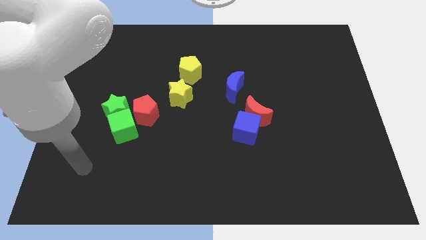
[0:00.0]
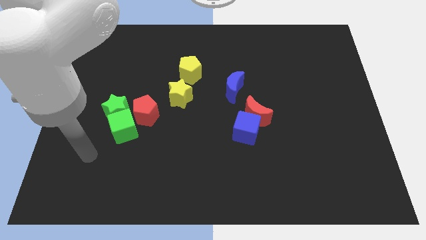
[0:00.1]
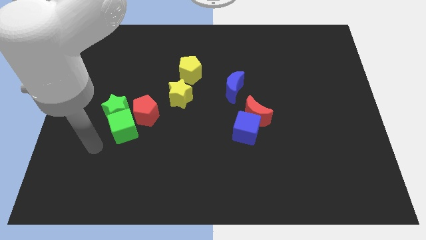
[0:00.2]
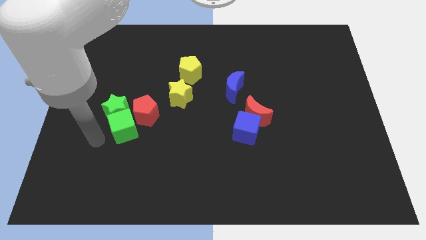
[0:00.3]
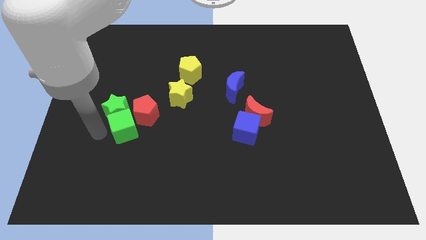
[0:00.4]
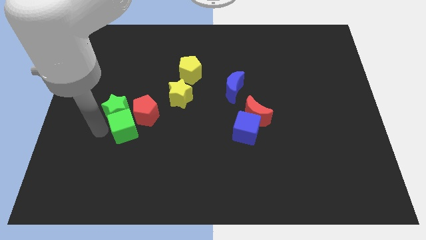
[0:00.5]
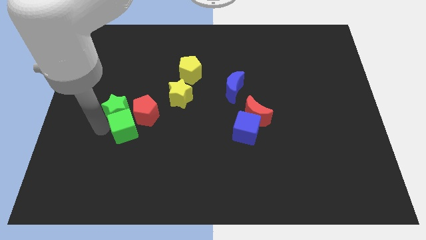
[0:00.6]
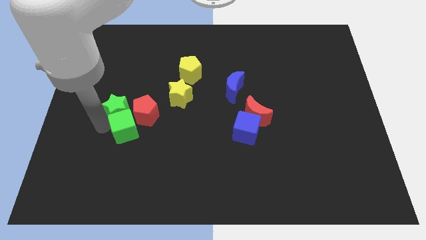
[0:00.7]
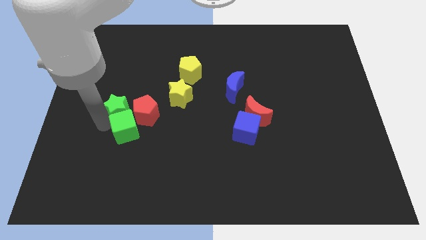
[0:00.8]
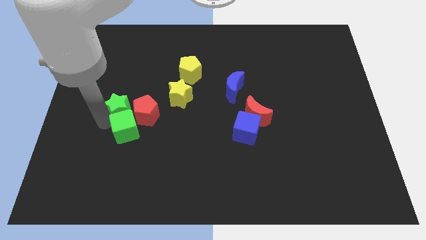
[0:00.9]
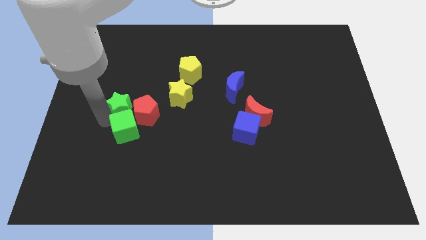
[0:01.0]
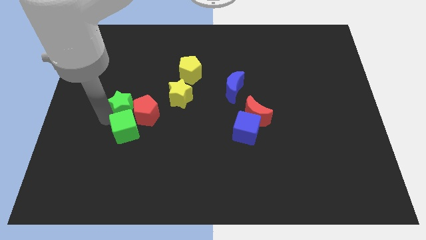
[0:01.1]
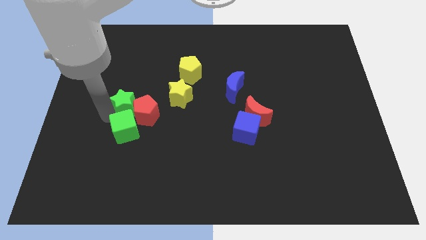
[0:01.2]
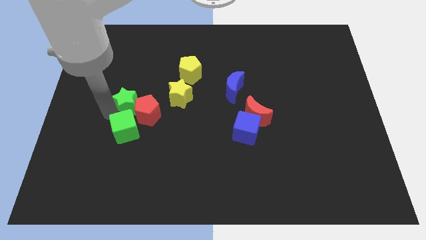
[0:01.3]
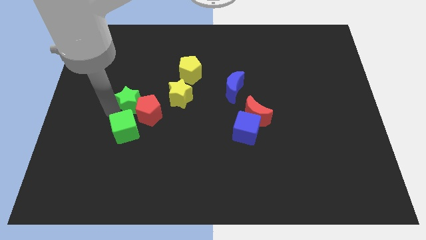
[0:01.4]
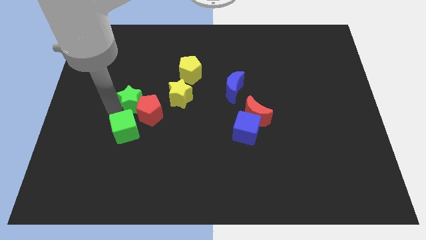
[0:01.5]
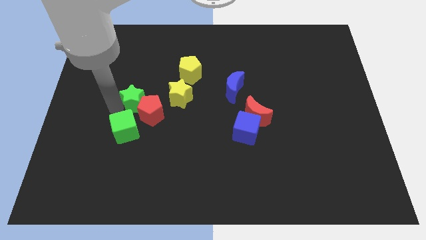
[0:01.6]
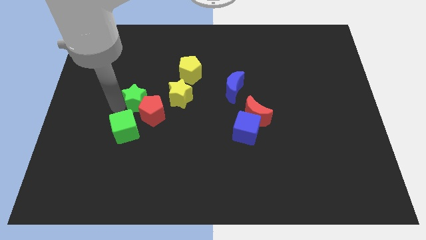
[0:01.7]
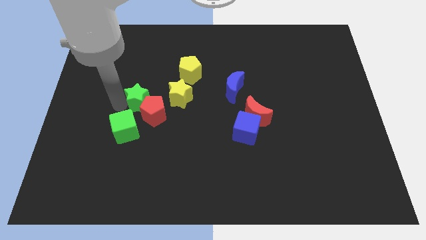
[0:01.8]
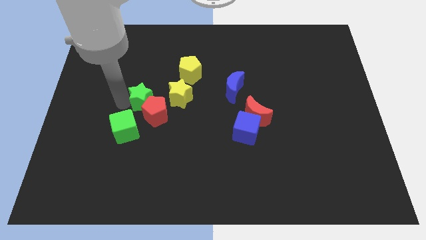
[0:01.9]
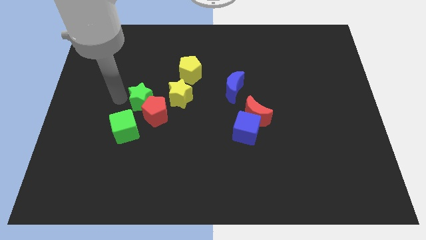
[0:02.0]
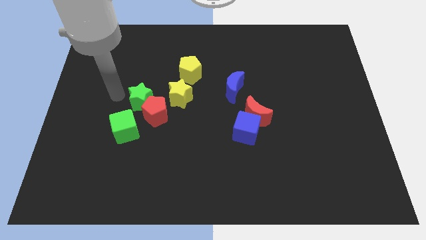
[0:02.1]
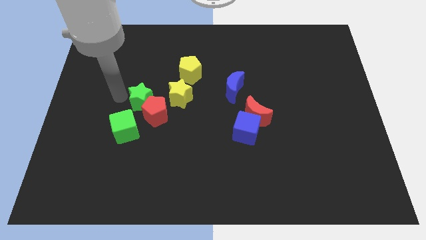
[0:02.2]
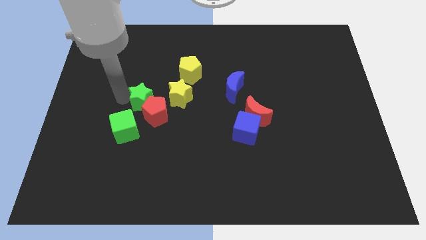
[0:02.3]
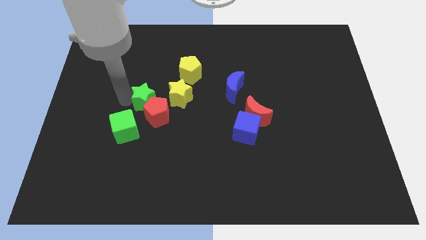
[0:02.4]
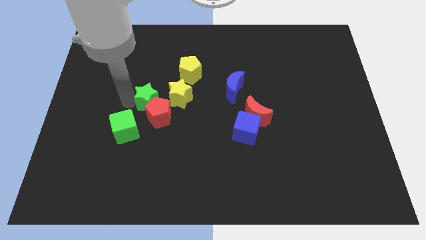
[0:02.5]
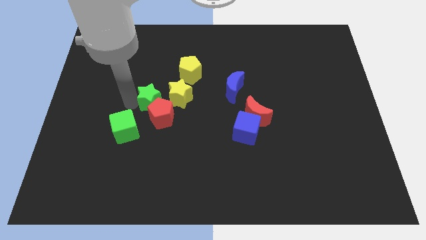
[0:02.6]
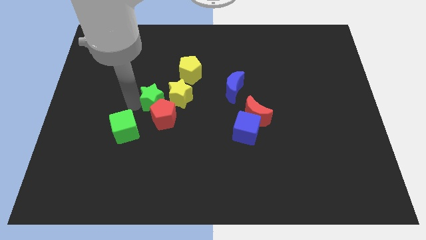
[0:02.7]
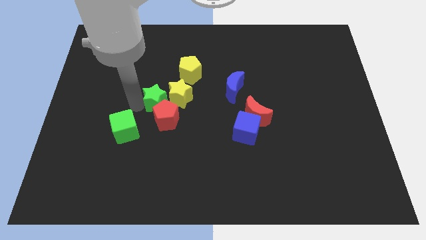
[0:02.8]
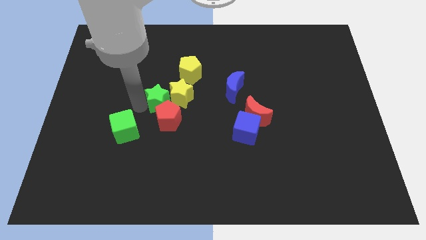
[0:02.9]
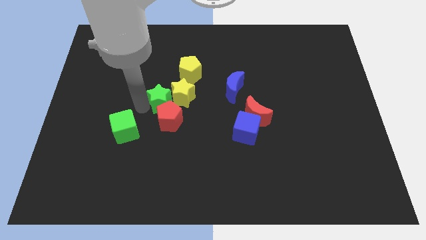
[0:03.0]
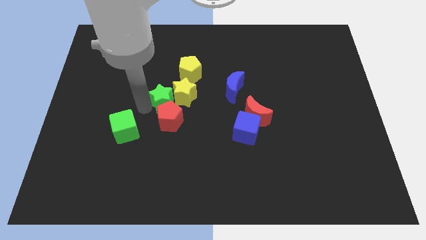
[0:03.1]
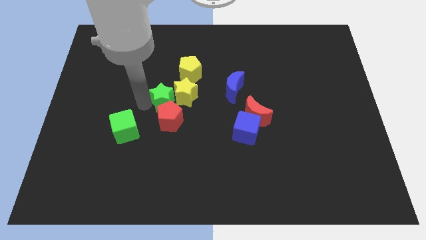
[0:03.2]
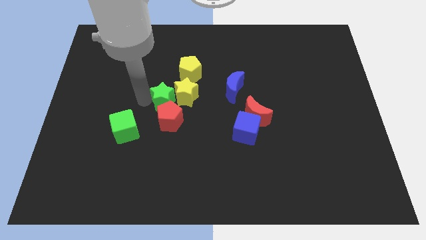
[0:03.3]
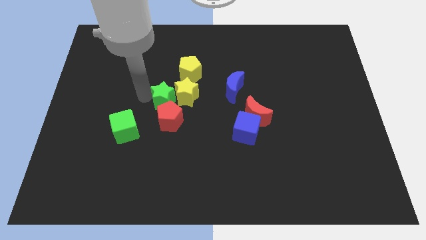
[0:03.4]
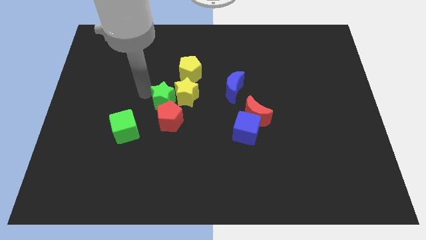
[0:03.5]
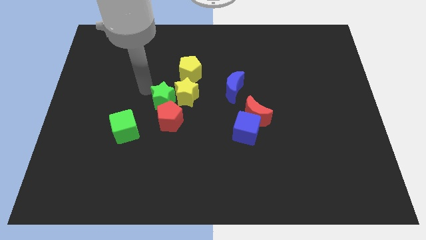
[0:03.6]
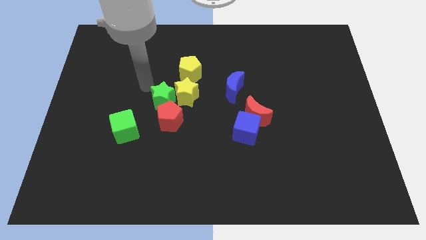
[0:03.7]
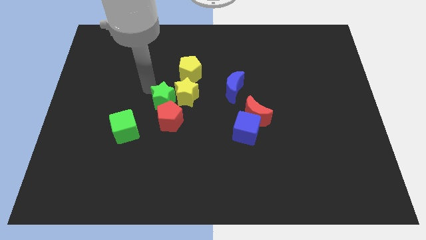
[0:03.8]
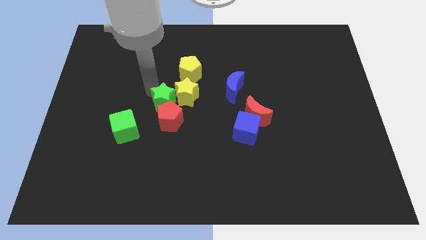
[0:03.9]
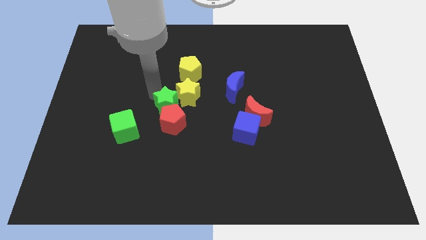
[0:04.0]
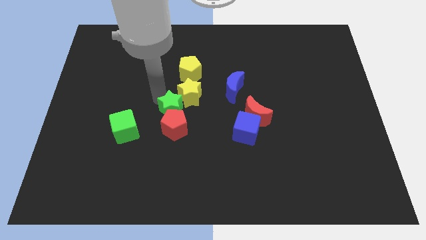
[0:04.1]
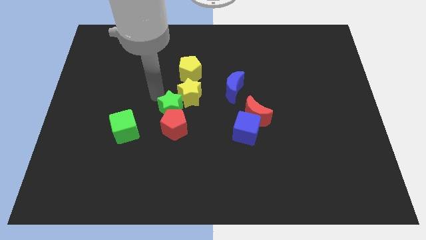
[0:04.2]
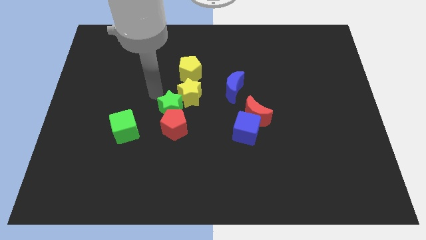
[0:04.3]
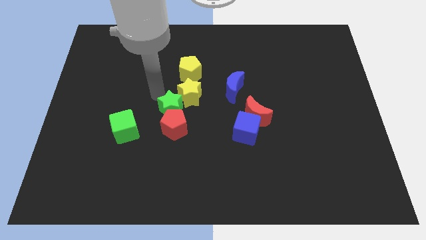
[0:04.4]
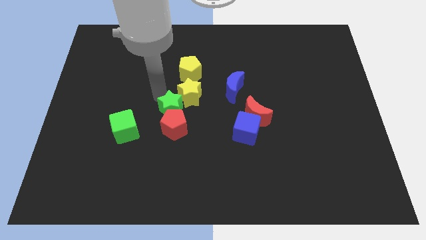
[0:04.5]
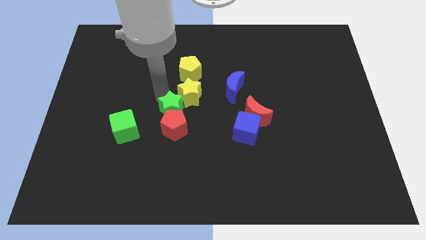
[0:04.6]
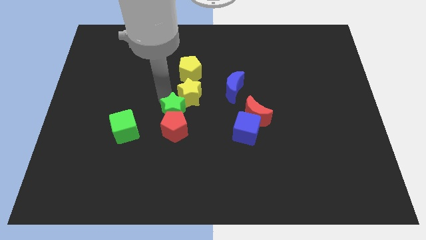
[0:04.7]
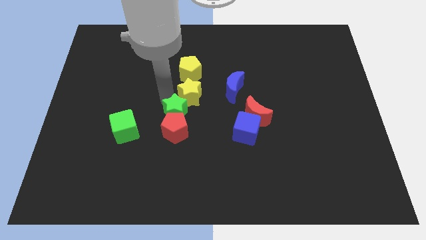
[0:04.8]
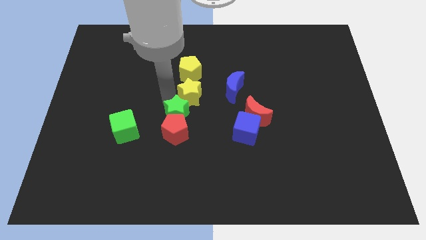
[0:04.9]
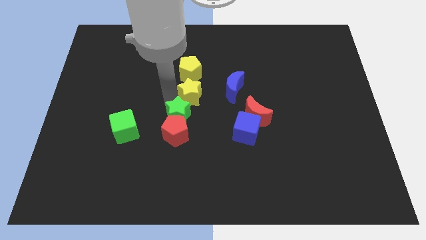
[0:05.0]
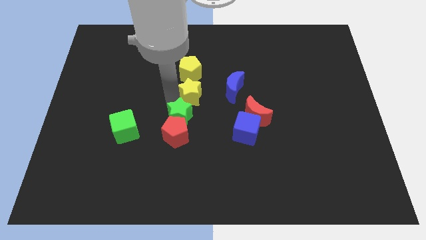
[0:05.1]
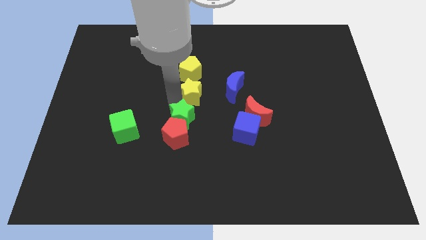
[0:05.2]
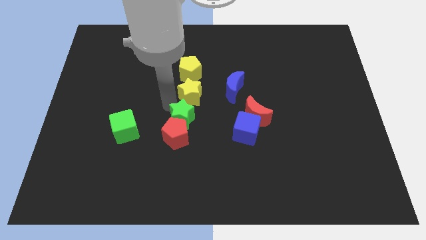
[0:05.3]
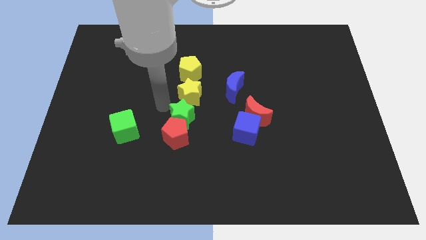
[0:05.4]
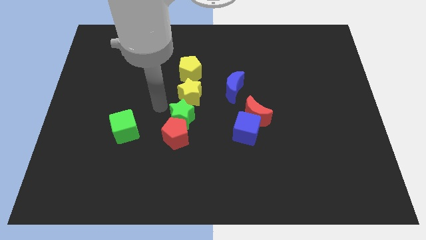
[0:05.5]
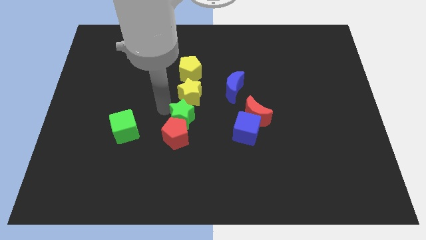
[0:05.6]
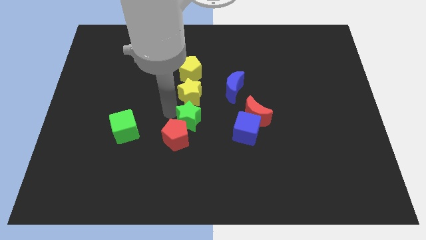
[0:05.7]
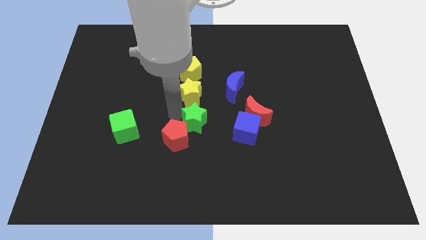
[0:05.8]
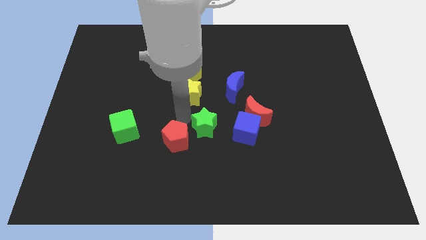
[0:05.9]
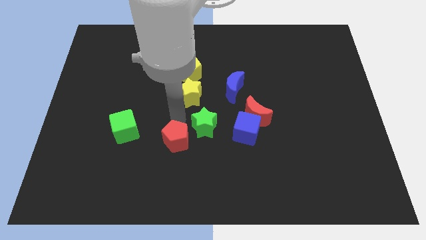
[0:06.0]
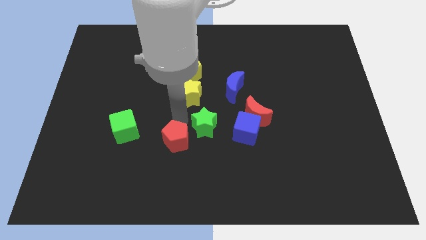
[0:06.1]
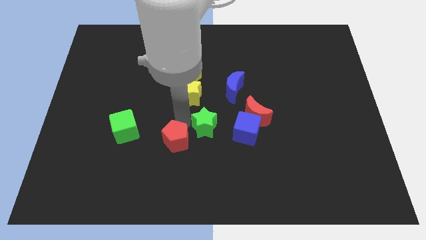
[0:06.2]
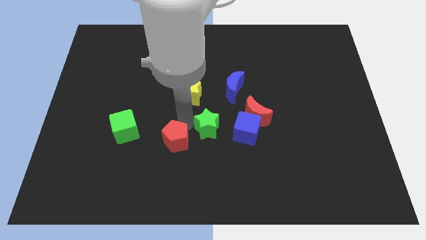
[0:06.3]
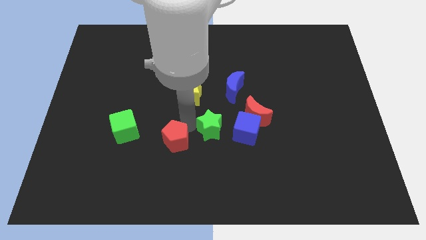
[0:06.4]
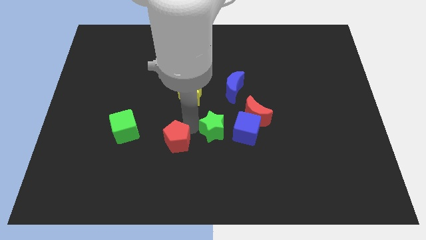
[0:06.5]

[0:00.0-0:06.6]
move the green star to the bottom left side of the red moon

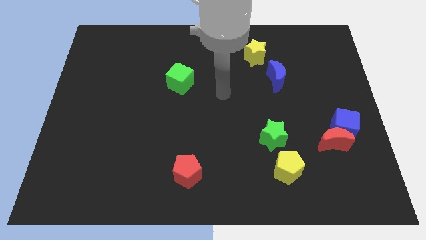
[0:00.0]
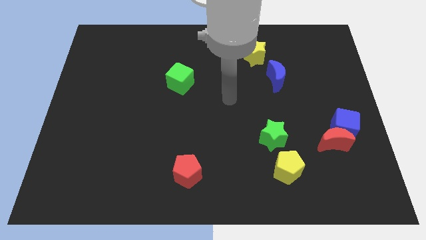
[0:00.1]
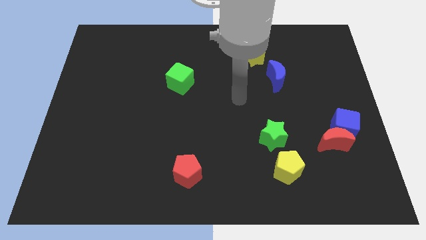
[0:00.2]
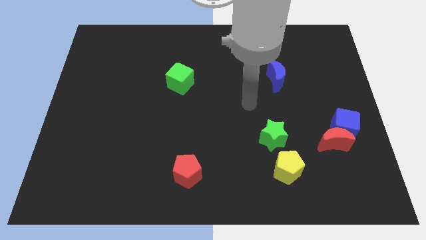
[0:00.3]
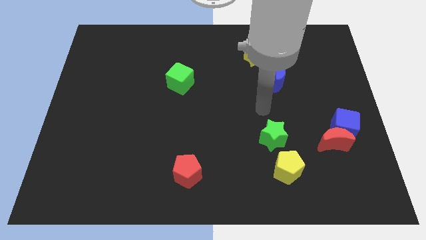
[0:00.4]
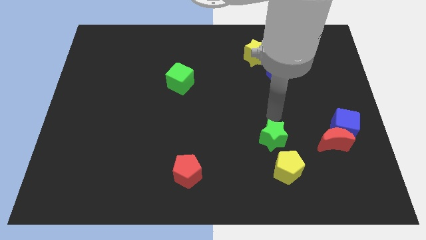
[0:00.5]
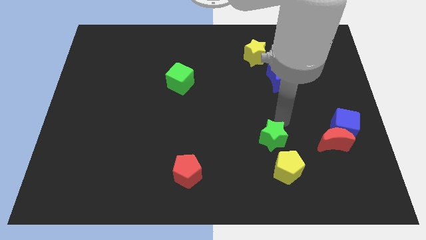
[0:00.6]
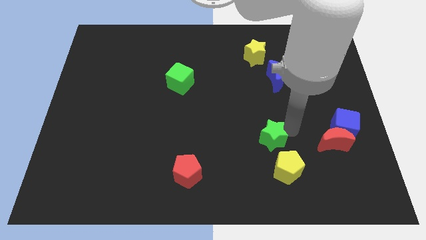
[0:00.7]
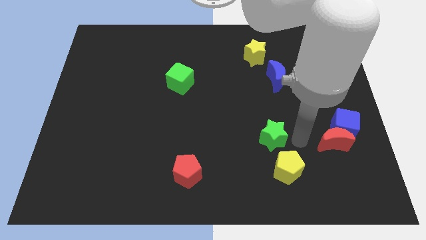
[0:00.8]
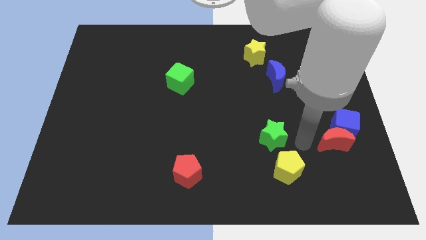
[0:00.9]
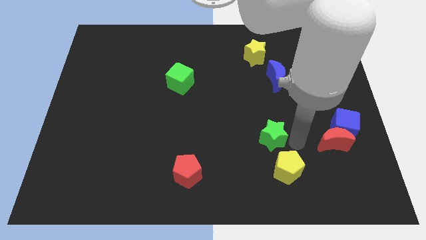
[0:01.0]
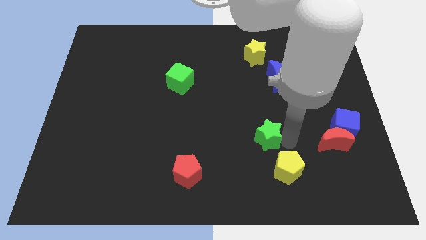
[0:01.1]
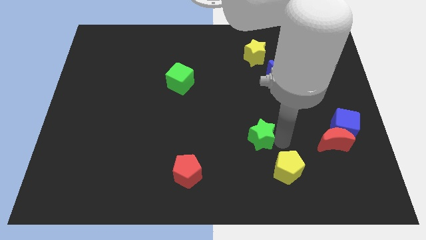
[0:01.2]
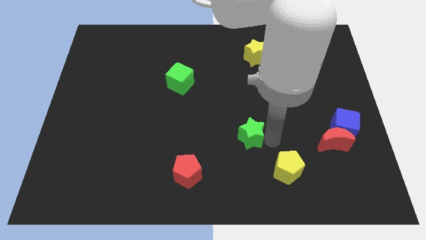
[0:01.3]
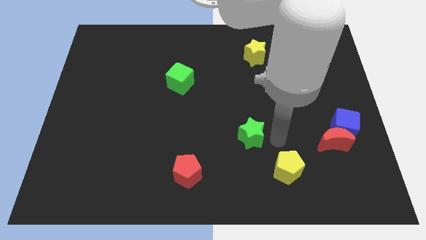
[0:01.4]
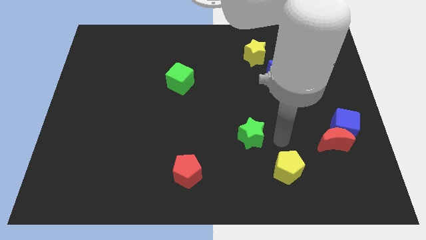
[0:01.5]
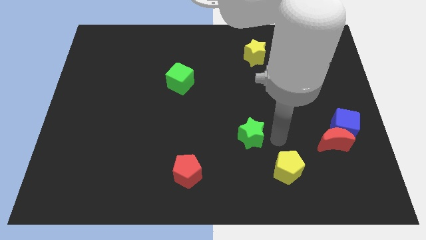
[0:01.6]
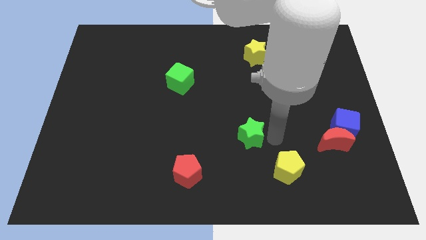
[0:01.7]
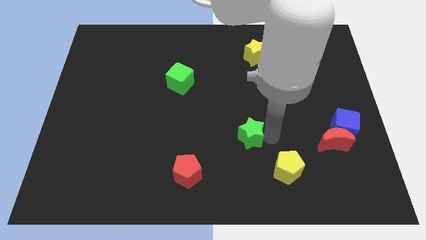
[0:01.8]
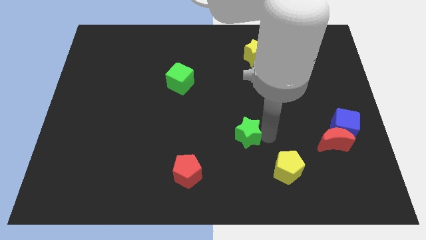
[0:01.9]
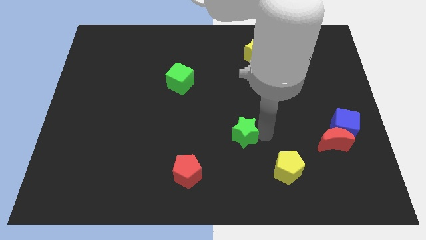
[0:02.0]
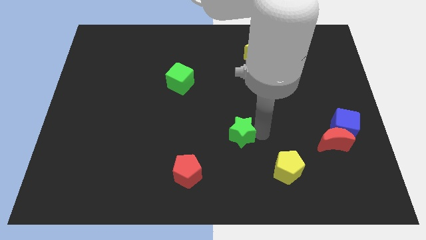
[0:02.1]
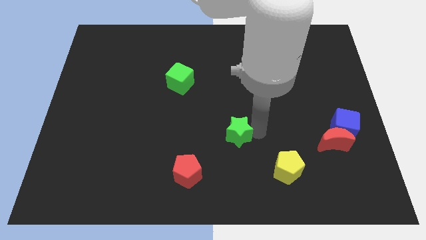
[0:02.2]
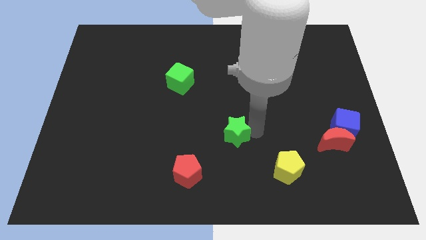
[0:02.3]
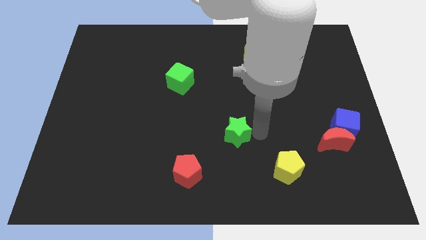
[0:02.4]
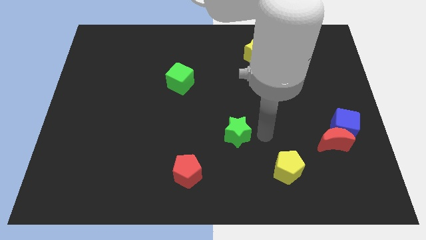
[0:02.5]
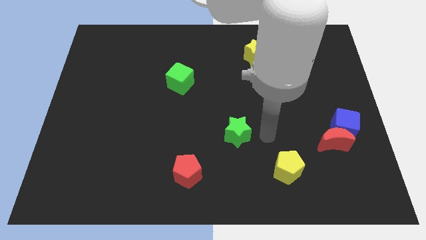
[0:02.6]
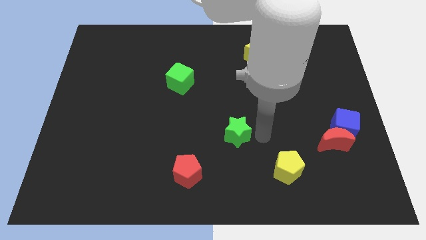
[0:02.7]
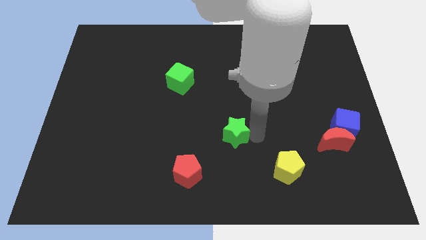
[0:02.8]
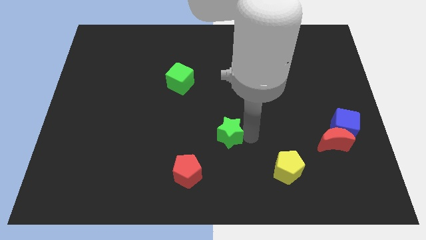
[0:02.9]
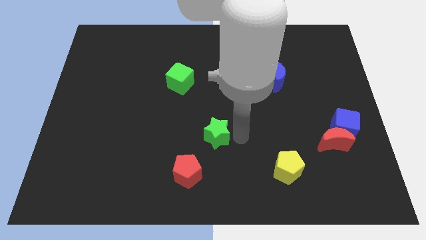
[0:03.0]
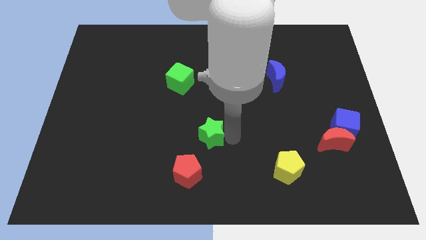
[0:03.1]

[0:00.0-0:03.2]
slide the green star to the top side of the red pentagon
